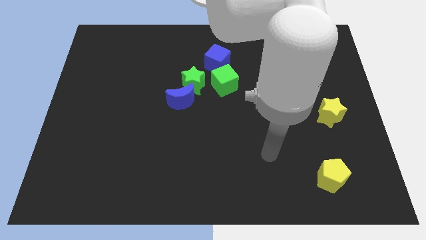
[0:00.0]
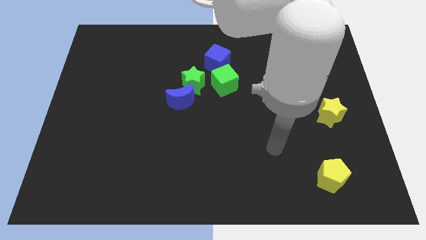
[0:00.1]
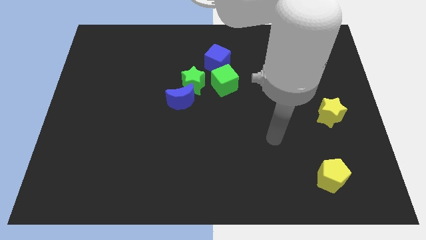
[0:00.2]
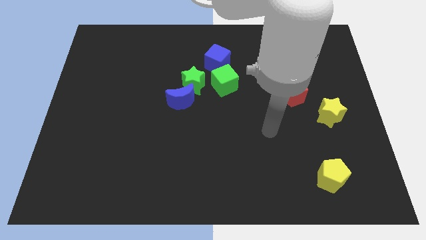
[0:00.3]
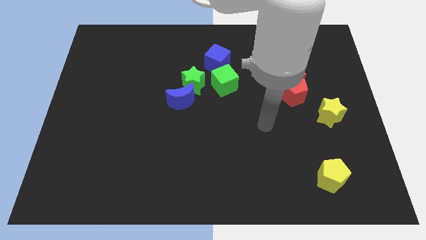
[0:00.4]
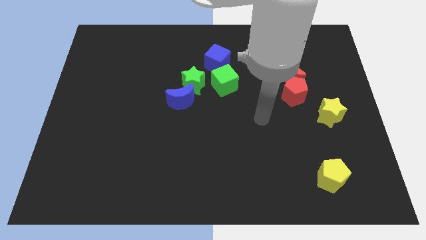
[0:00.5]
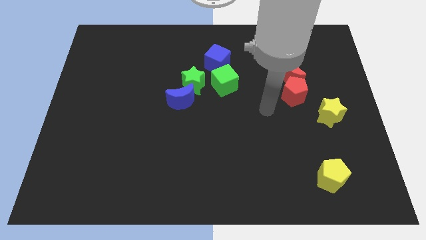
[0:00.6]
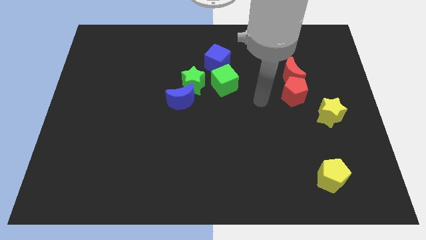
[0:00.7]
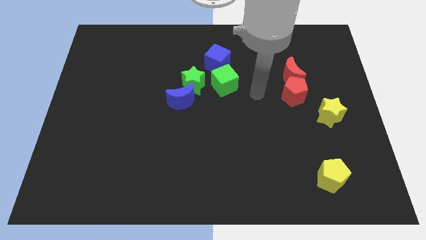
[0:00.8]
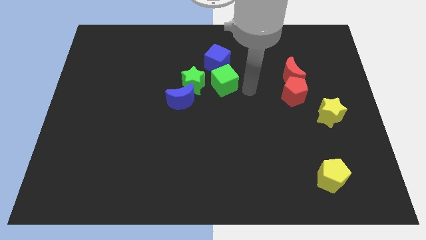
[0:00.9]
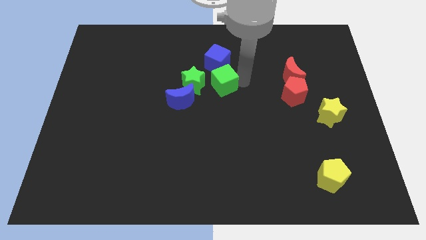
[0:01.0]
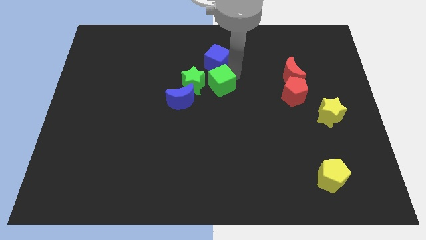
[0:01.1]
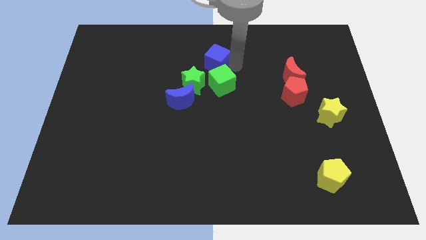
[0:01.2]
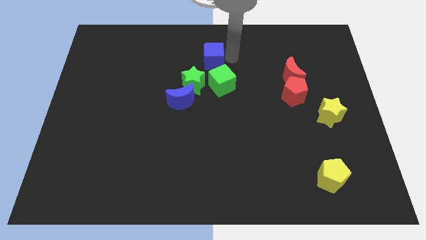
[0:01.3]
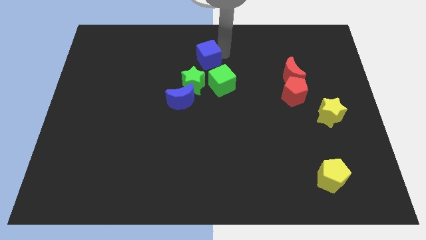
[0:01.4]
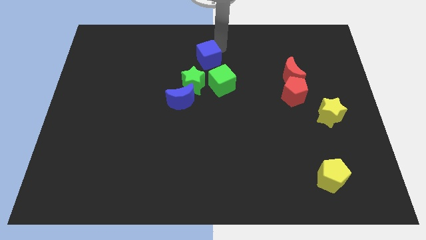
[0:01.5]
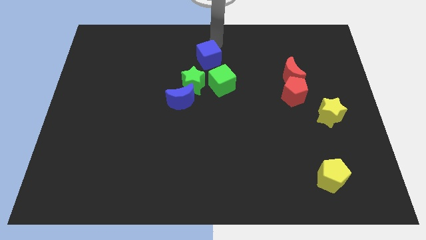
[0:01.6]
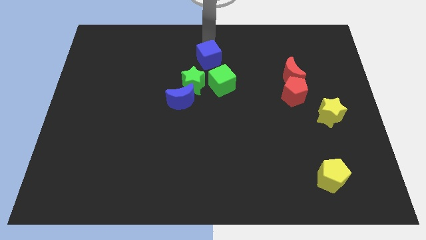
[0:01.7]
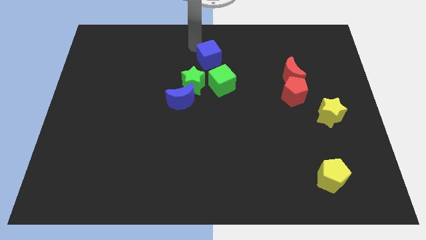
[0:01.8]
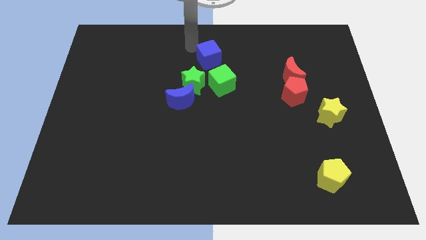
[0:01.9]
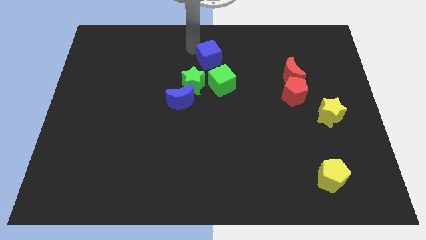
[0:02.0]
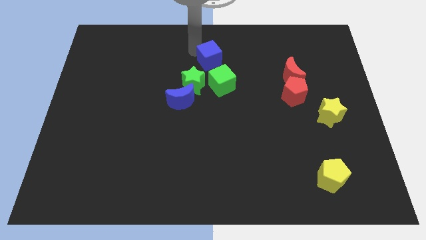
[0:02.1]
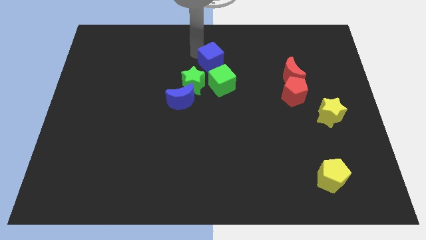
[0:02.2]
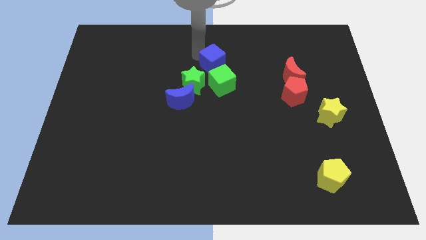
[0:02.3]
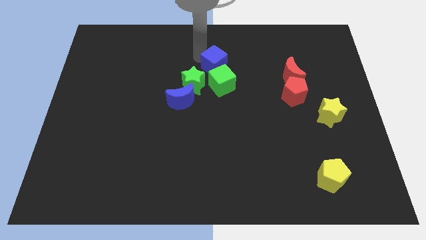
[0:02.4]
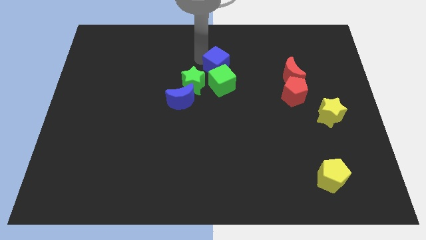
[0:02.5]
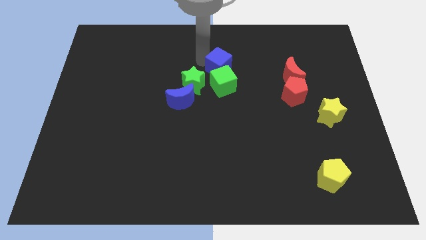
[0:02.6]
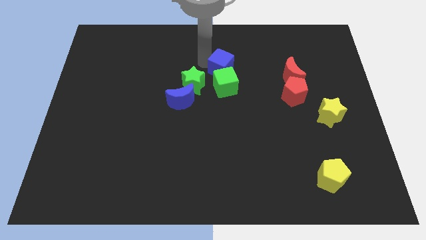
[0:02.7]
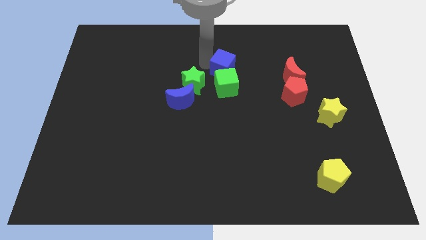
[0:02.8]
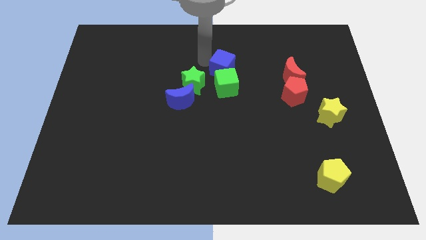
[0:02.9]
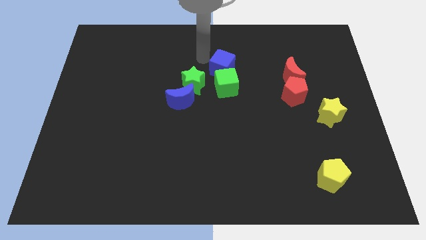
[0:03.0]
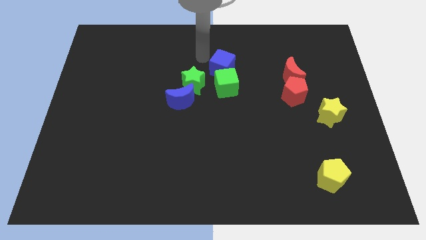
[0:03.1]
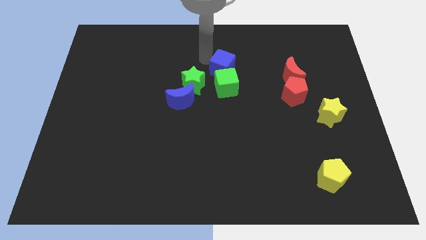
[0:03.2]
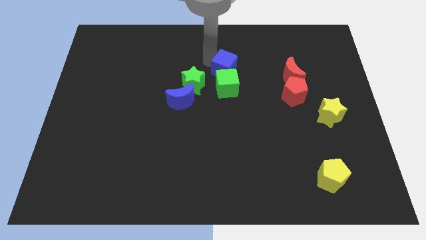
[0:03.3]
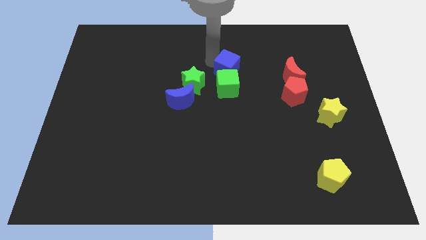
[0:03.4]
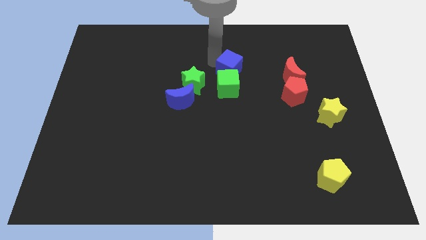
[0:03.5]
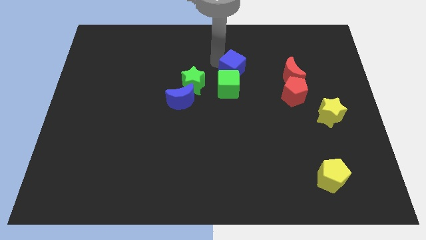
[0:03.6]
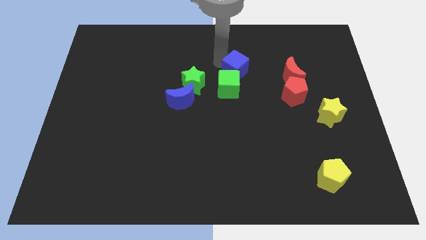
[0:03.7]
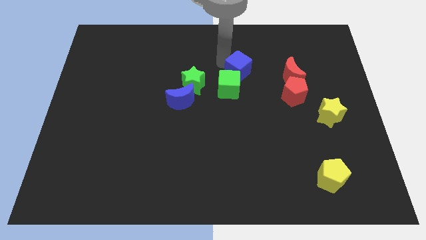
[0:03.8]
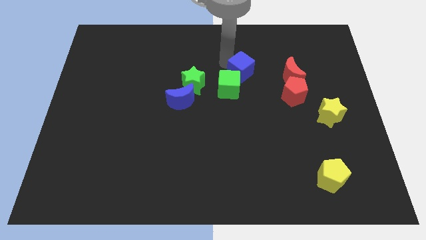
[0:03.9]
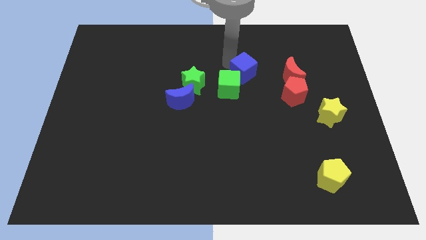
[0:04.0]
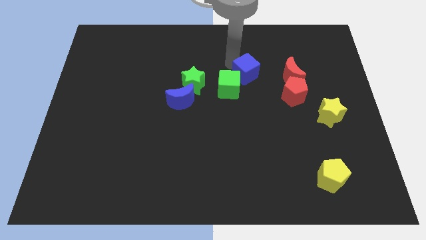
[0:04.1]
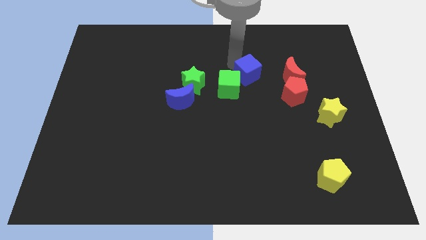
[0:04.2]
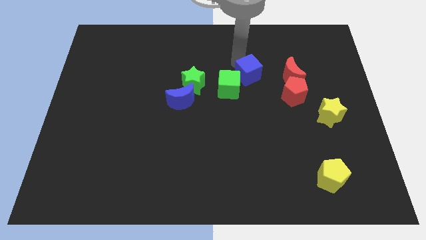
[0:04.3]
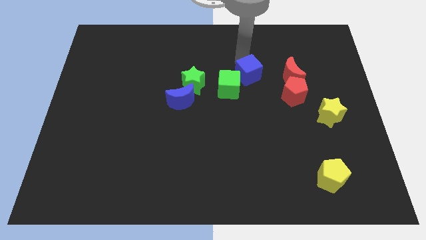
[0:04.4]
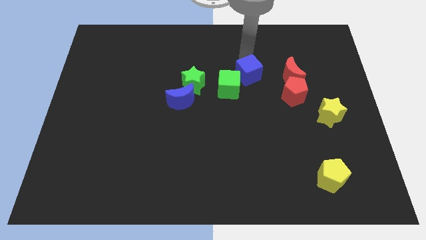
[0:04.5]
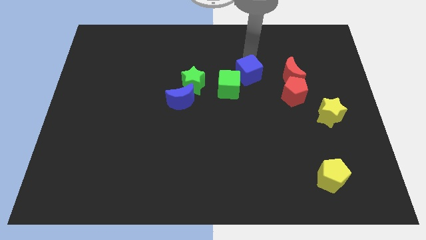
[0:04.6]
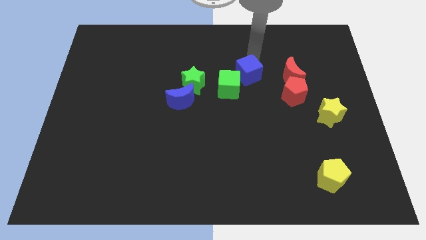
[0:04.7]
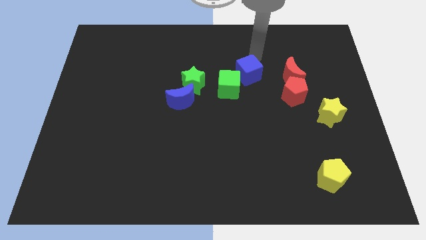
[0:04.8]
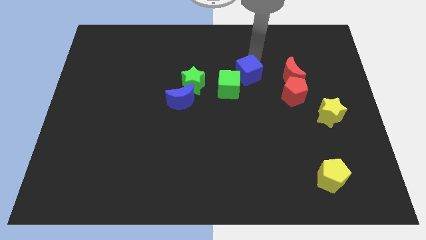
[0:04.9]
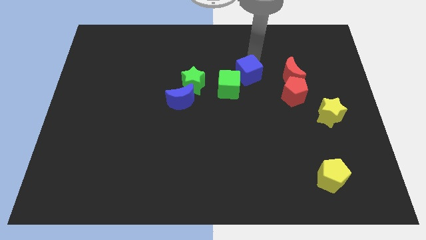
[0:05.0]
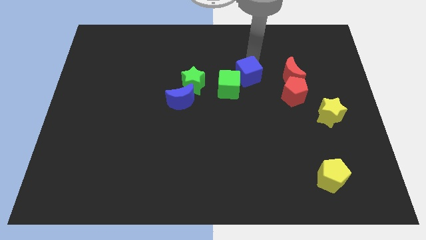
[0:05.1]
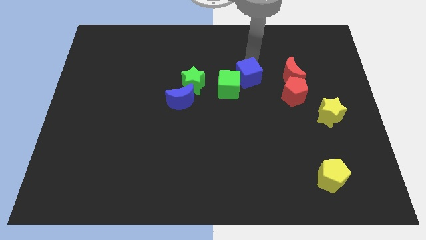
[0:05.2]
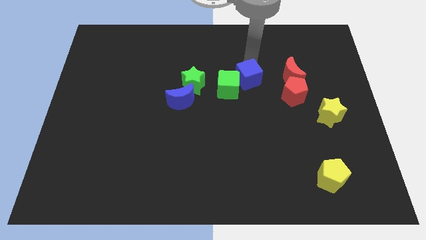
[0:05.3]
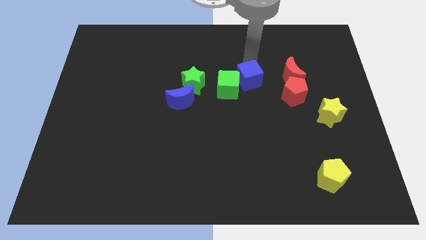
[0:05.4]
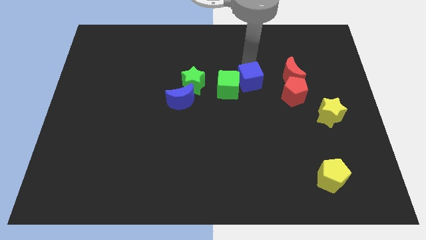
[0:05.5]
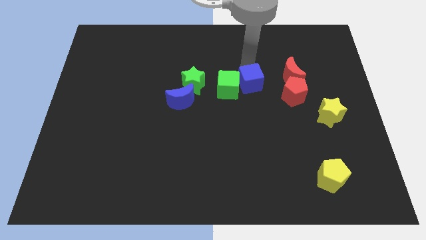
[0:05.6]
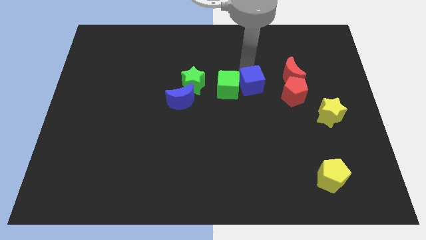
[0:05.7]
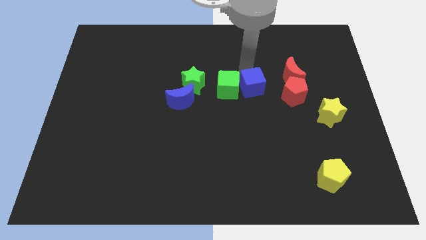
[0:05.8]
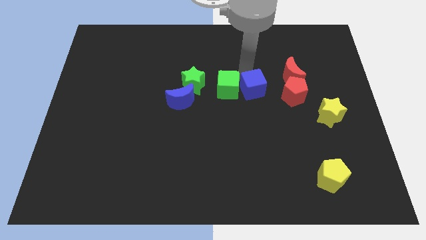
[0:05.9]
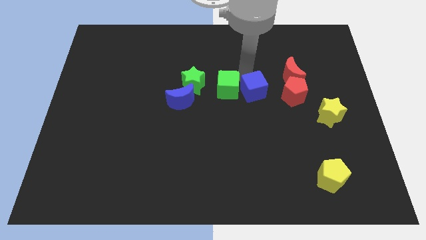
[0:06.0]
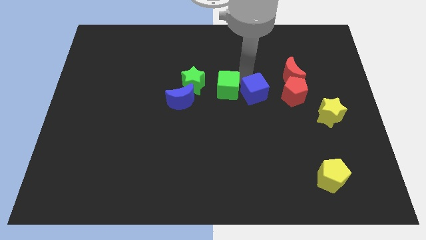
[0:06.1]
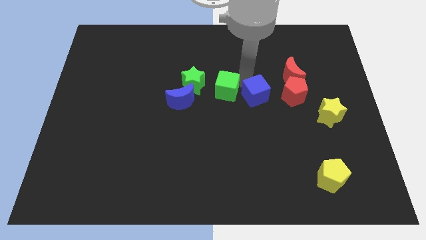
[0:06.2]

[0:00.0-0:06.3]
push the blue cube a little downwards

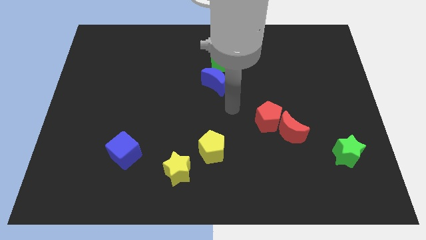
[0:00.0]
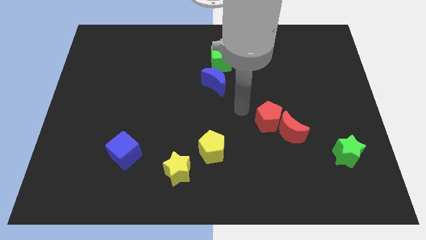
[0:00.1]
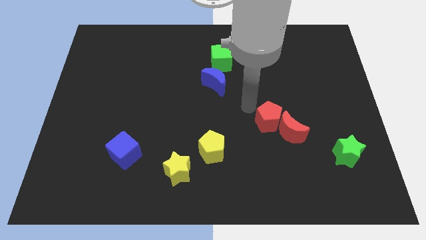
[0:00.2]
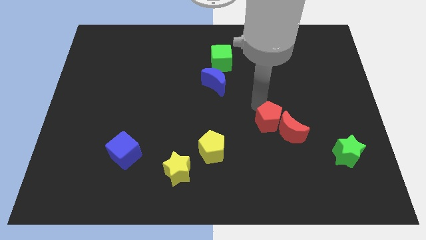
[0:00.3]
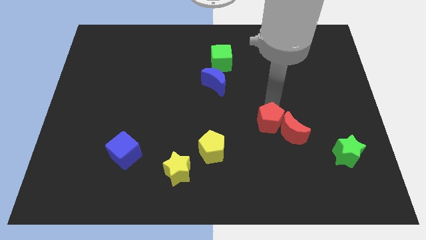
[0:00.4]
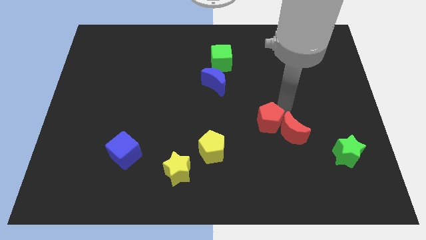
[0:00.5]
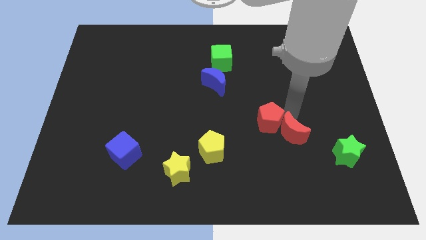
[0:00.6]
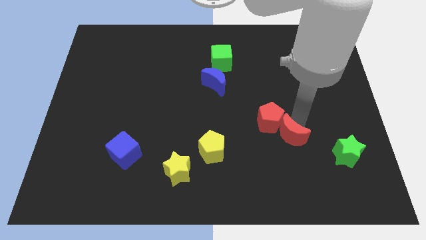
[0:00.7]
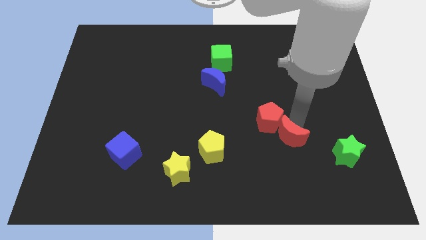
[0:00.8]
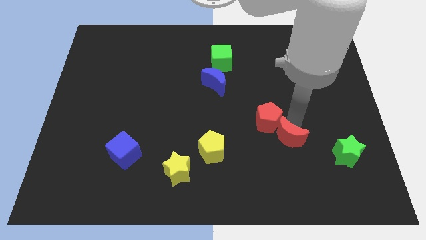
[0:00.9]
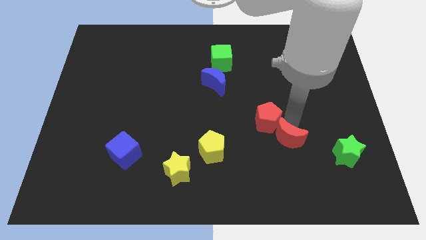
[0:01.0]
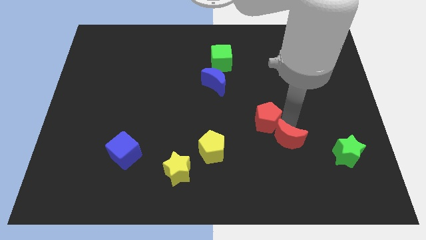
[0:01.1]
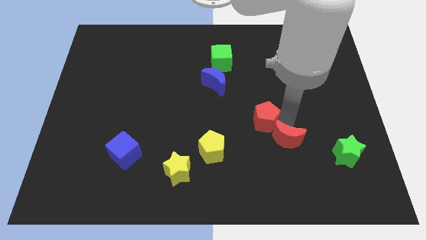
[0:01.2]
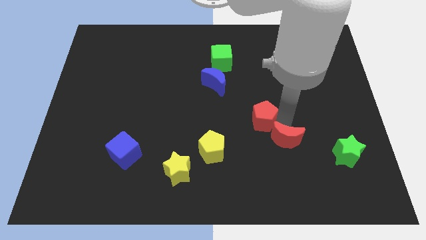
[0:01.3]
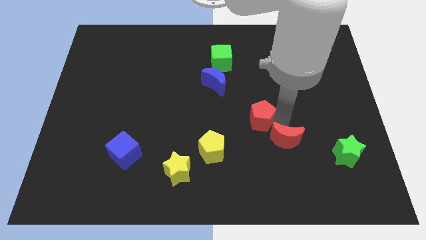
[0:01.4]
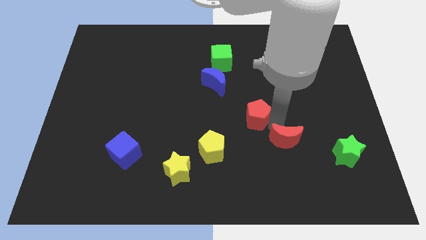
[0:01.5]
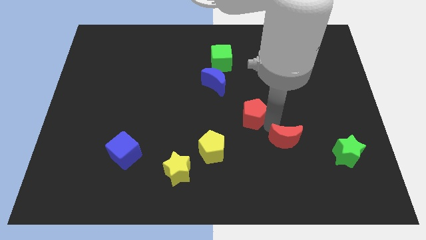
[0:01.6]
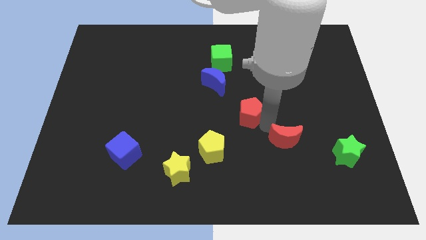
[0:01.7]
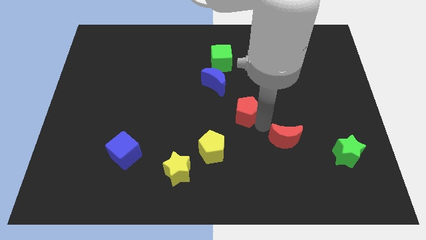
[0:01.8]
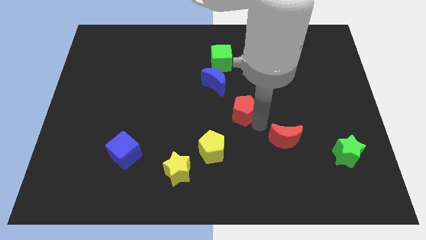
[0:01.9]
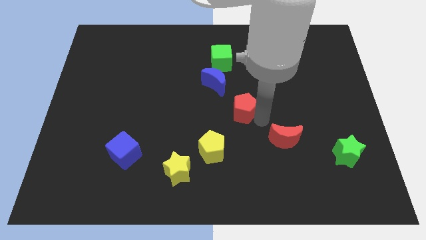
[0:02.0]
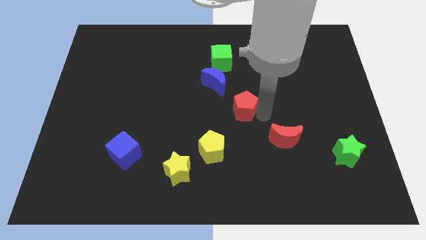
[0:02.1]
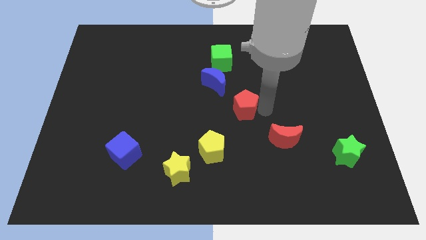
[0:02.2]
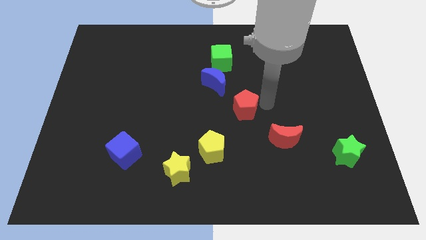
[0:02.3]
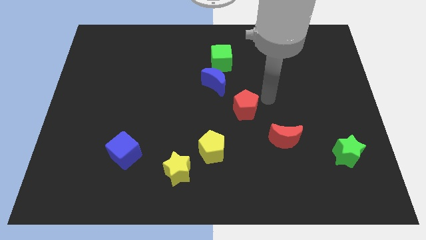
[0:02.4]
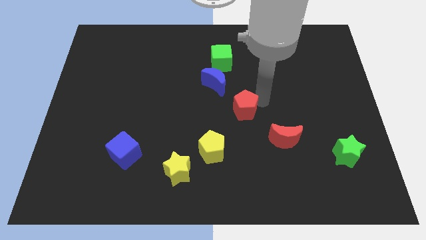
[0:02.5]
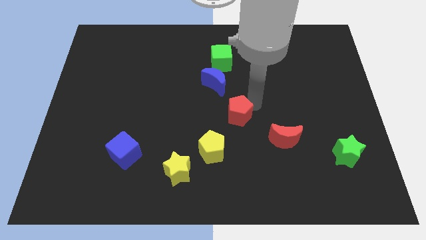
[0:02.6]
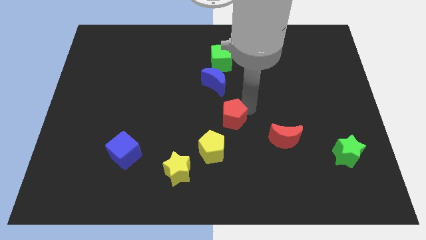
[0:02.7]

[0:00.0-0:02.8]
move the red pentagon left slightly
